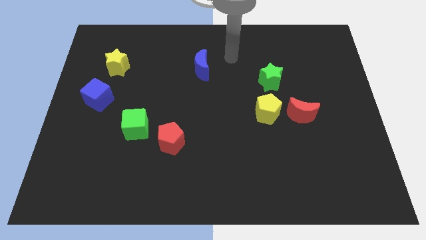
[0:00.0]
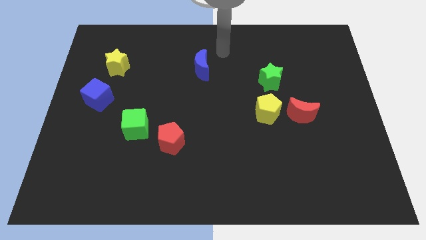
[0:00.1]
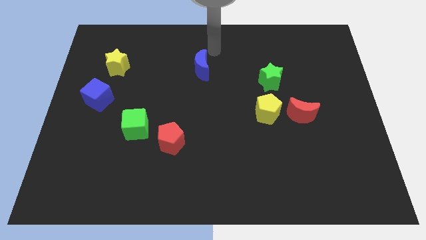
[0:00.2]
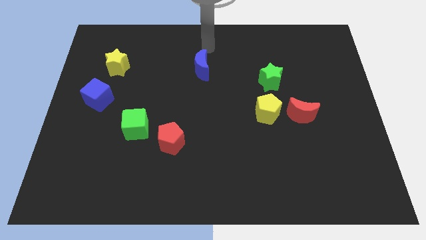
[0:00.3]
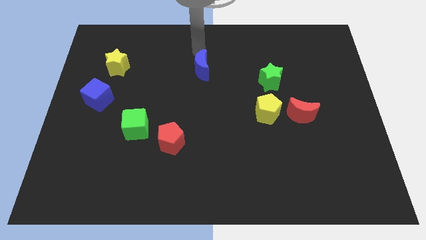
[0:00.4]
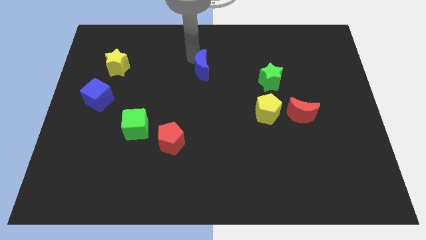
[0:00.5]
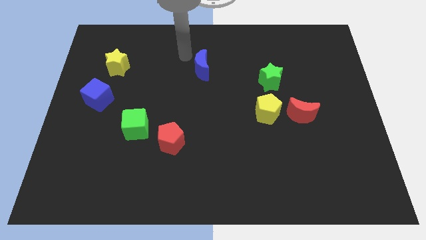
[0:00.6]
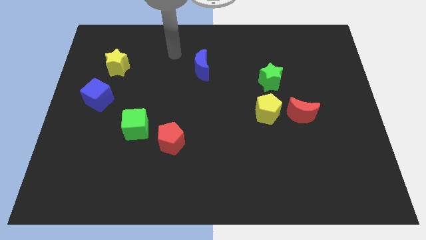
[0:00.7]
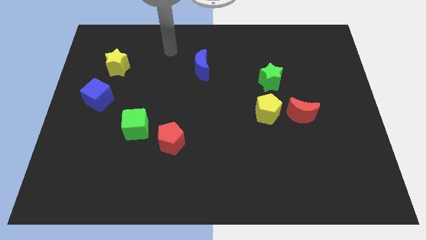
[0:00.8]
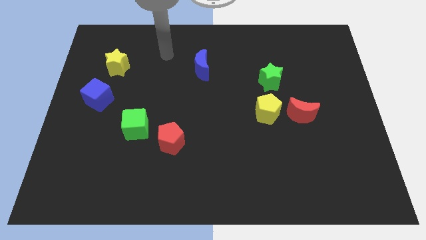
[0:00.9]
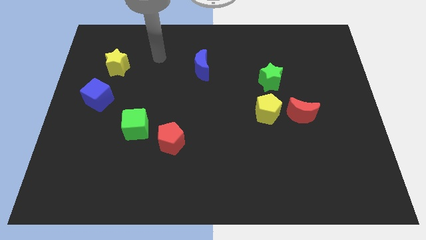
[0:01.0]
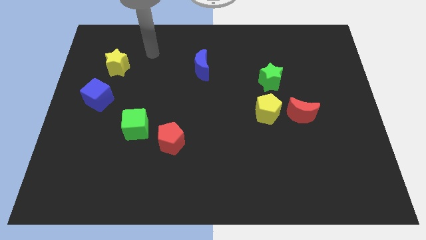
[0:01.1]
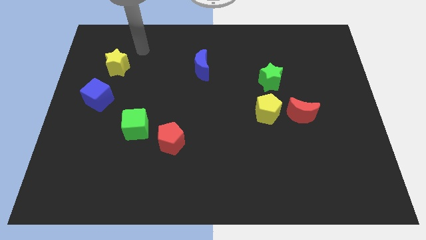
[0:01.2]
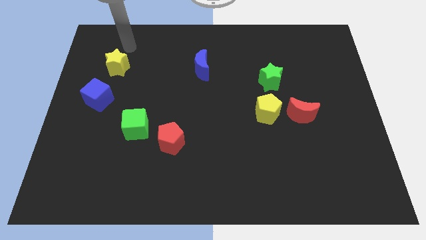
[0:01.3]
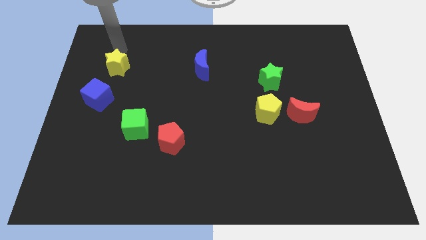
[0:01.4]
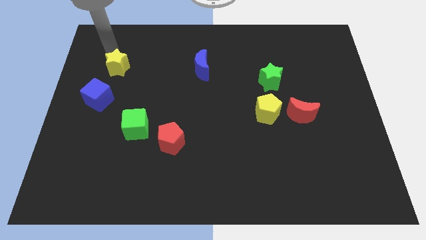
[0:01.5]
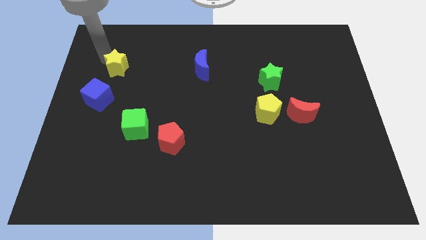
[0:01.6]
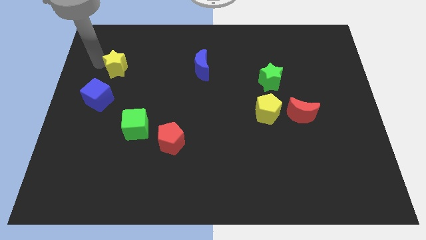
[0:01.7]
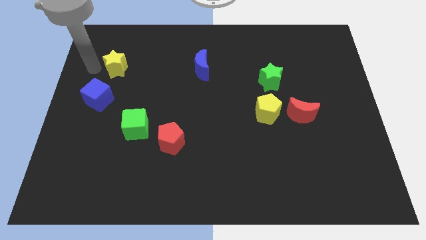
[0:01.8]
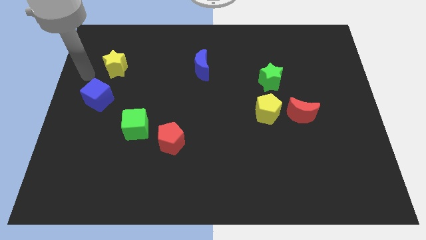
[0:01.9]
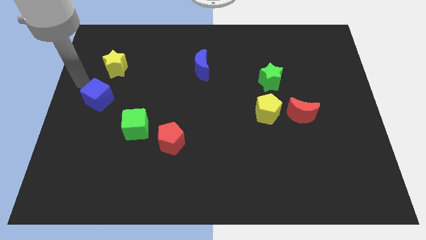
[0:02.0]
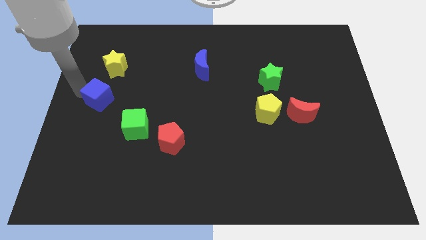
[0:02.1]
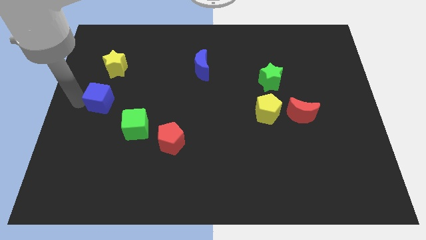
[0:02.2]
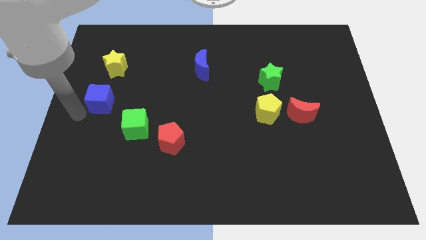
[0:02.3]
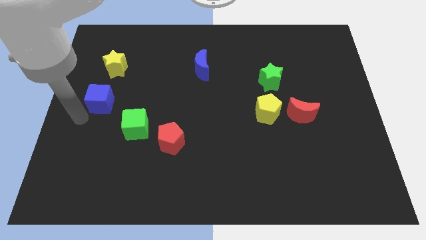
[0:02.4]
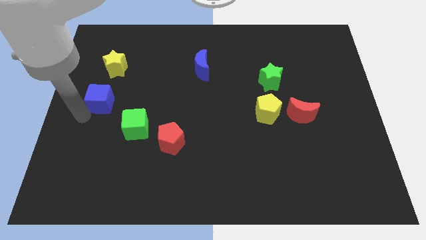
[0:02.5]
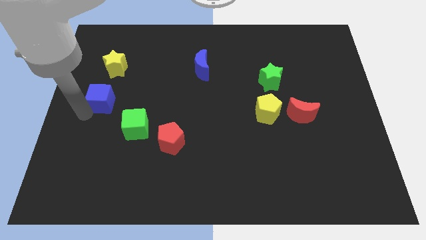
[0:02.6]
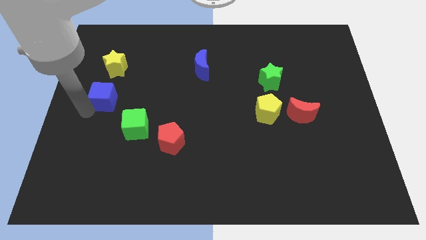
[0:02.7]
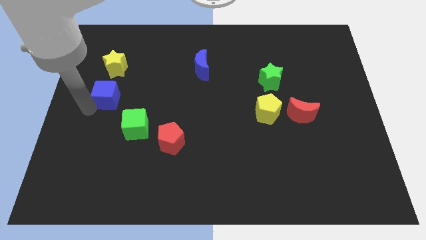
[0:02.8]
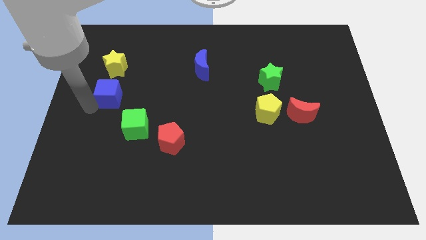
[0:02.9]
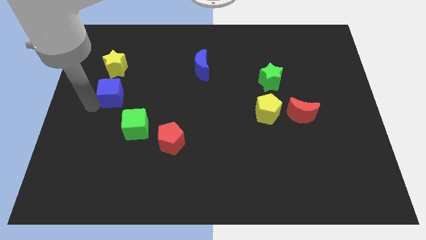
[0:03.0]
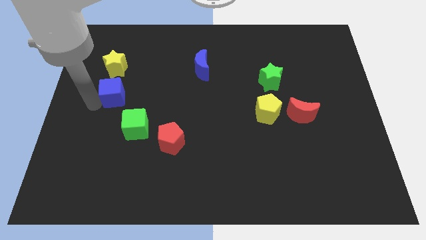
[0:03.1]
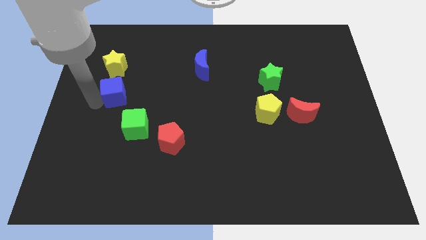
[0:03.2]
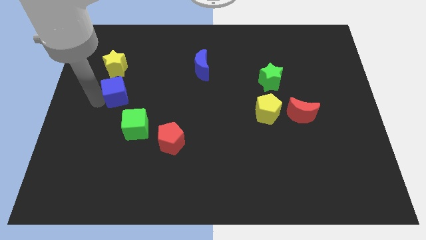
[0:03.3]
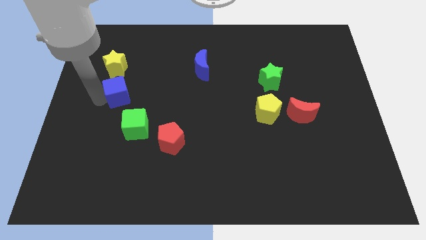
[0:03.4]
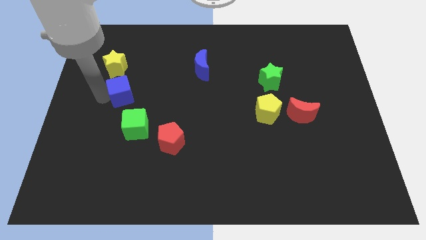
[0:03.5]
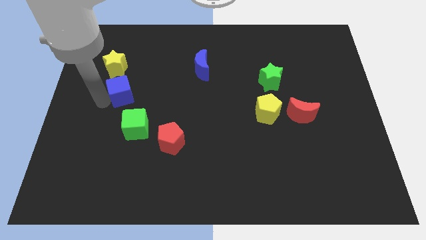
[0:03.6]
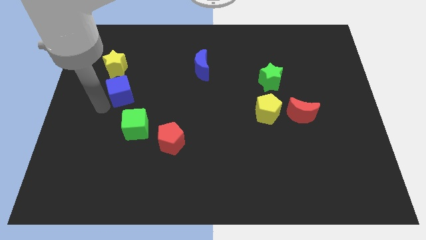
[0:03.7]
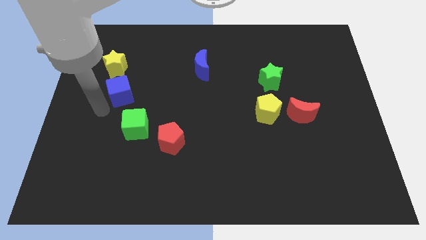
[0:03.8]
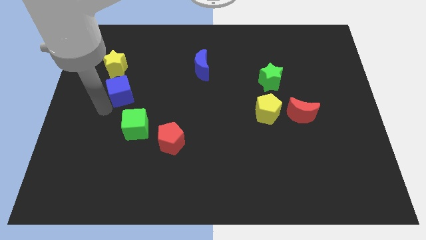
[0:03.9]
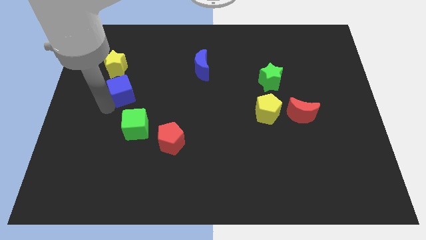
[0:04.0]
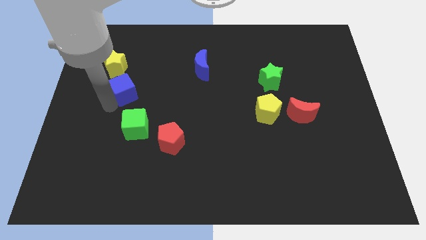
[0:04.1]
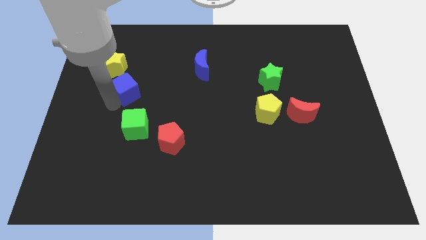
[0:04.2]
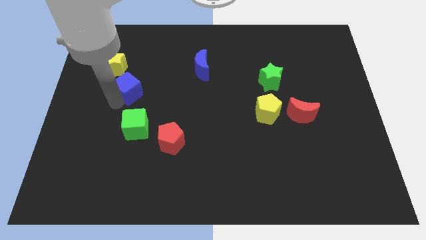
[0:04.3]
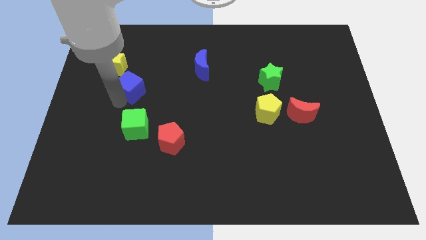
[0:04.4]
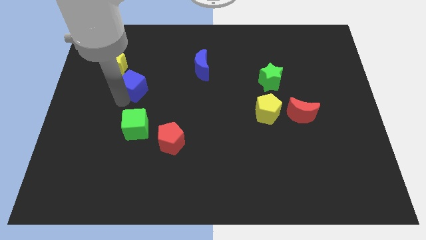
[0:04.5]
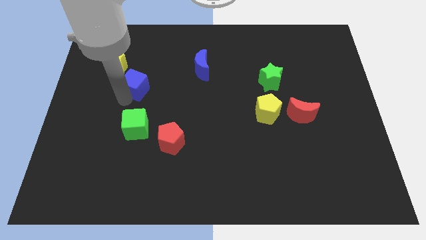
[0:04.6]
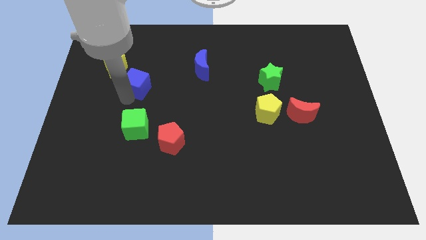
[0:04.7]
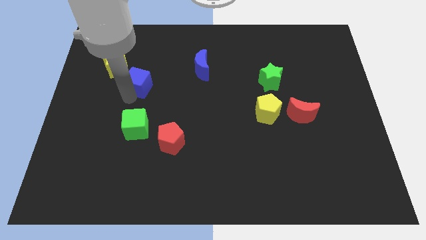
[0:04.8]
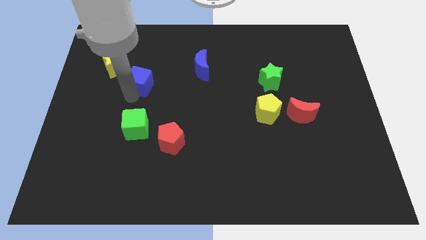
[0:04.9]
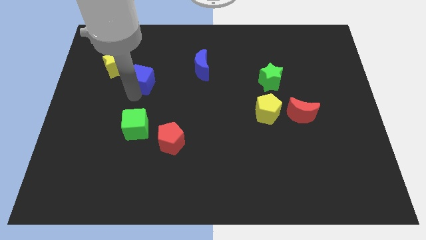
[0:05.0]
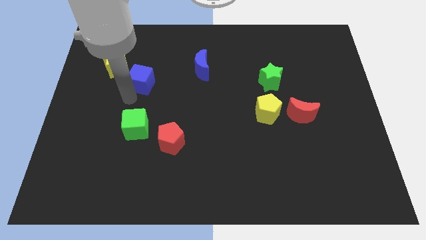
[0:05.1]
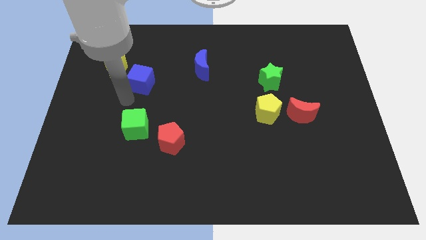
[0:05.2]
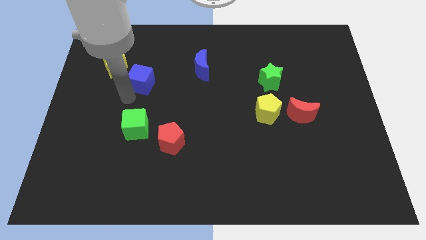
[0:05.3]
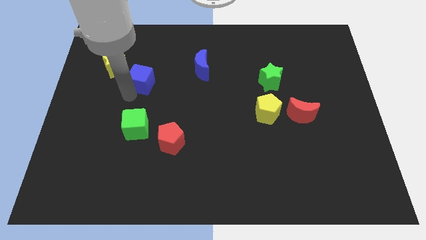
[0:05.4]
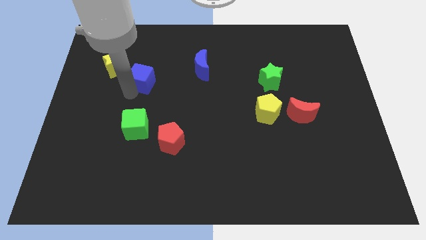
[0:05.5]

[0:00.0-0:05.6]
move the blue cube to the right of the yellow star

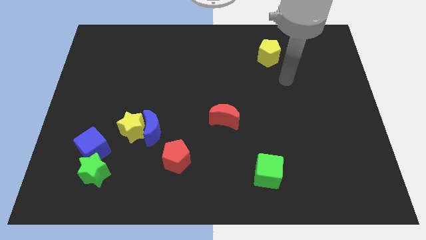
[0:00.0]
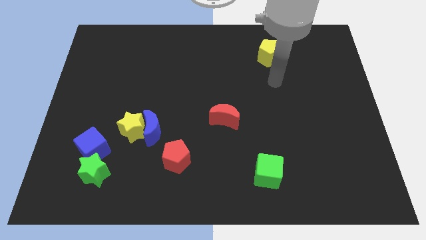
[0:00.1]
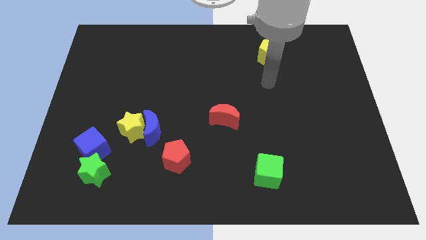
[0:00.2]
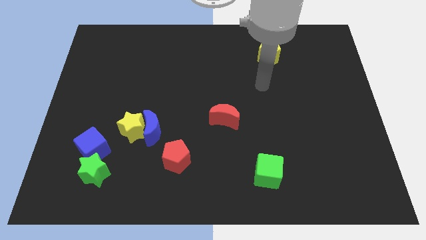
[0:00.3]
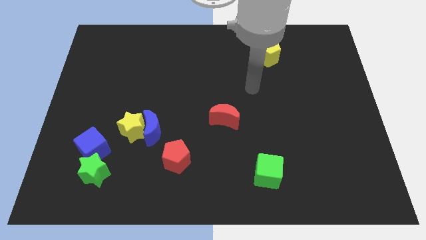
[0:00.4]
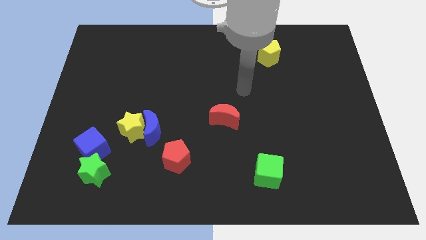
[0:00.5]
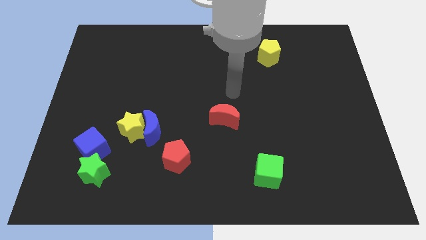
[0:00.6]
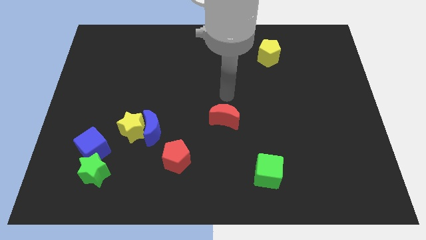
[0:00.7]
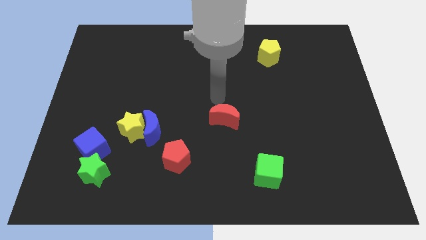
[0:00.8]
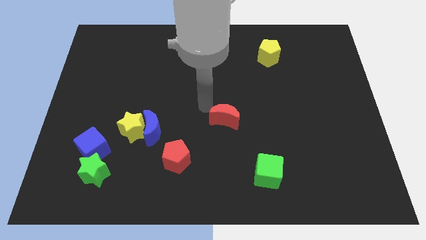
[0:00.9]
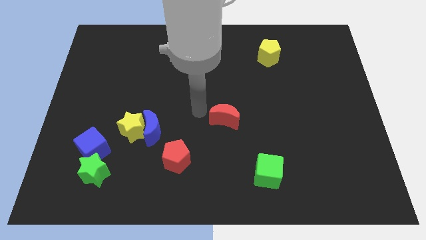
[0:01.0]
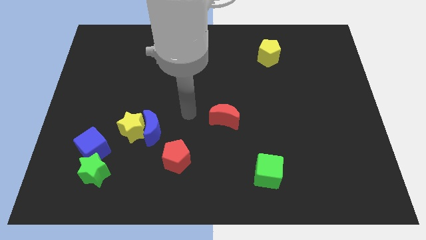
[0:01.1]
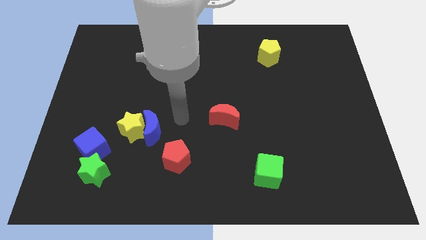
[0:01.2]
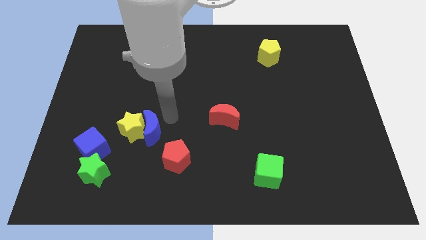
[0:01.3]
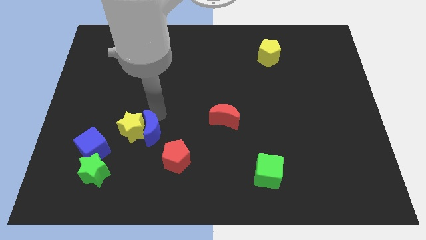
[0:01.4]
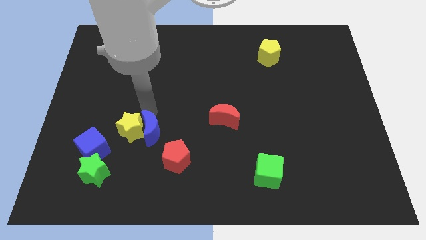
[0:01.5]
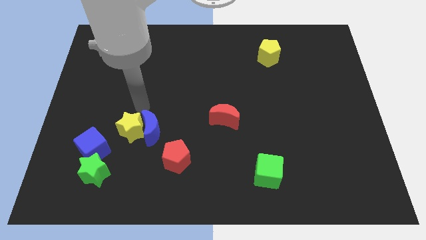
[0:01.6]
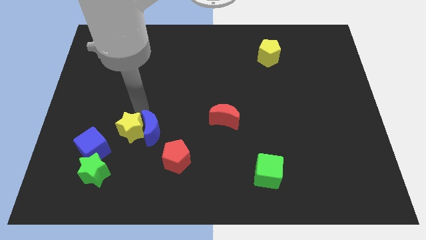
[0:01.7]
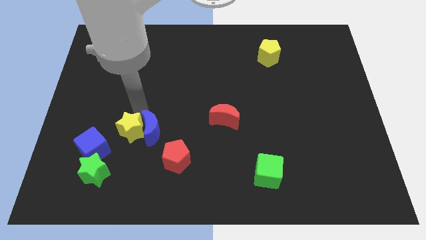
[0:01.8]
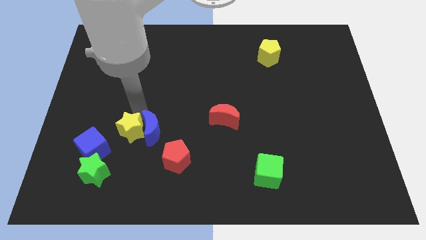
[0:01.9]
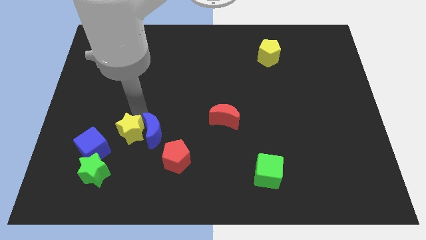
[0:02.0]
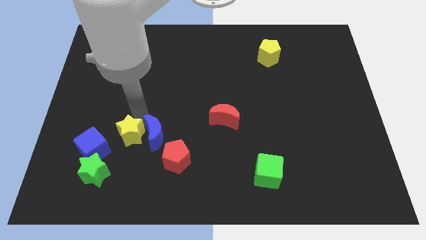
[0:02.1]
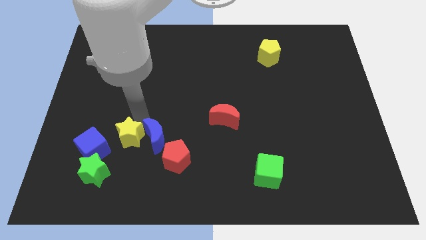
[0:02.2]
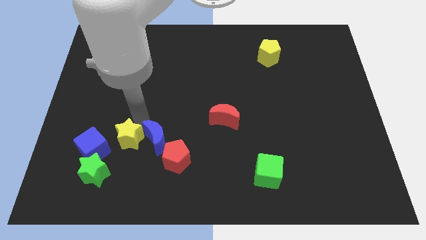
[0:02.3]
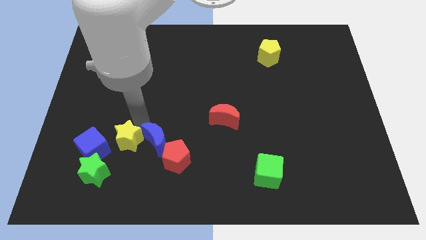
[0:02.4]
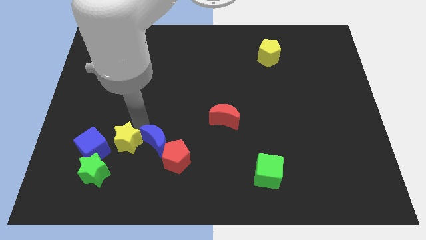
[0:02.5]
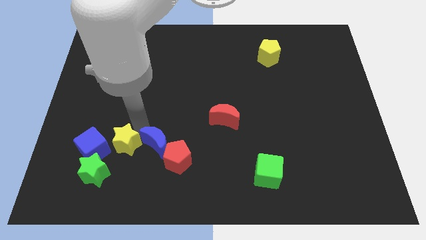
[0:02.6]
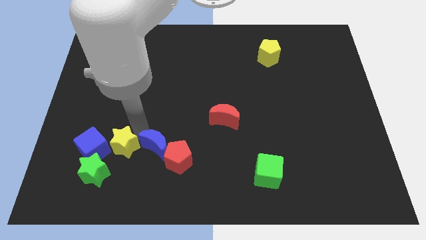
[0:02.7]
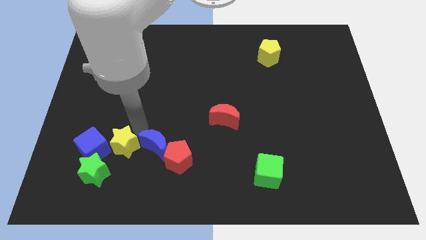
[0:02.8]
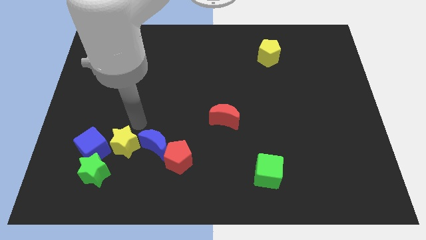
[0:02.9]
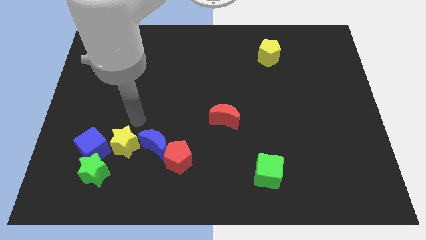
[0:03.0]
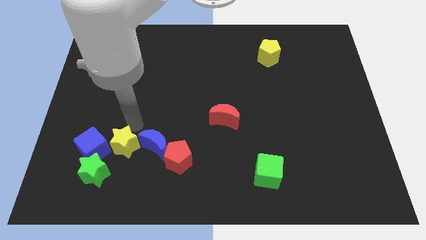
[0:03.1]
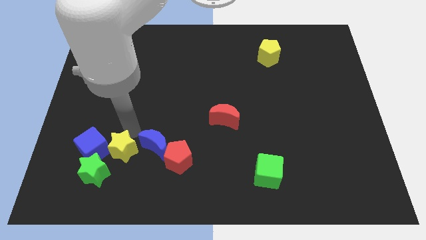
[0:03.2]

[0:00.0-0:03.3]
move the yellow star to the bottom right side of the blue cube
